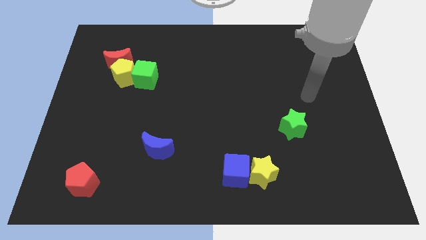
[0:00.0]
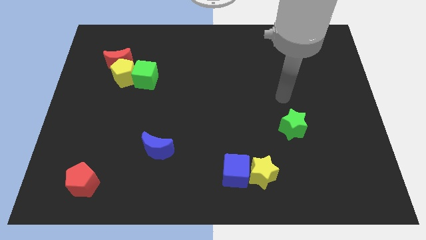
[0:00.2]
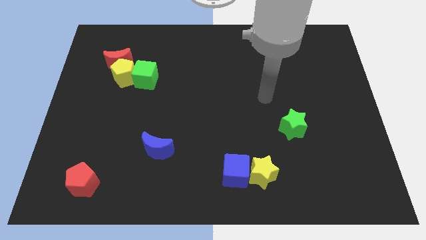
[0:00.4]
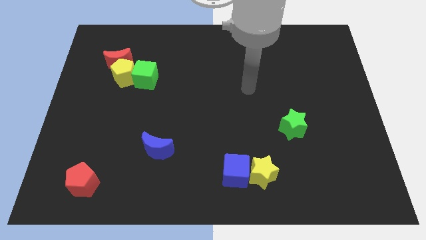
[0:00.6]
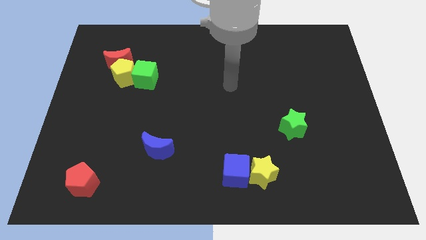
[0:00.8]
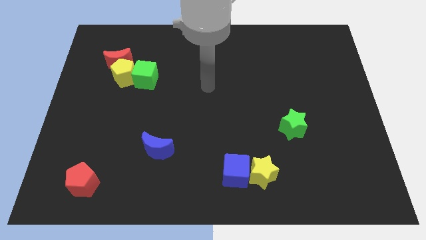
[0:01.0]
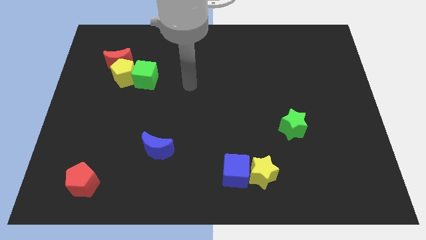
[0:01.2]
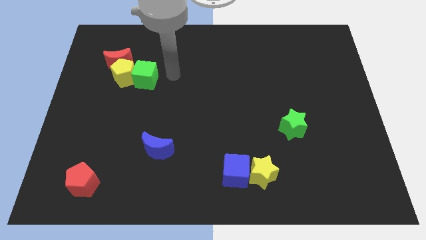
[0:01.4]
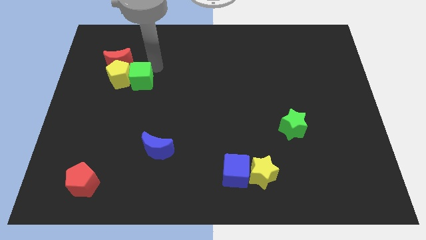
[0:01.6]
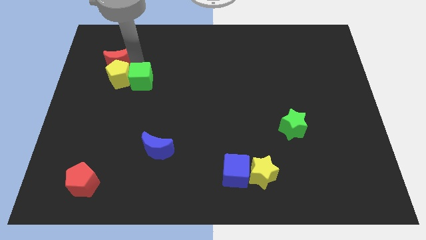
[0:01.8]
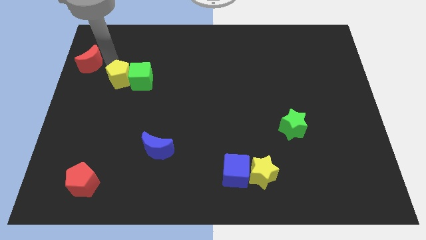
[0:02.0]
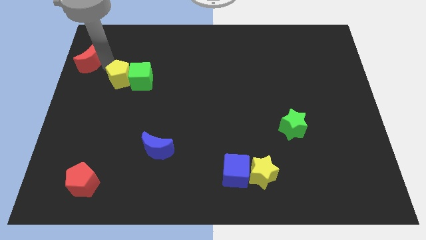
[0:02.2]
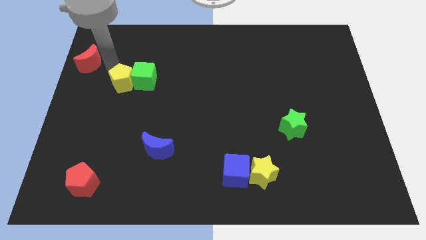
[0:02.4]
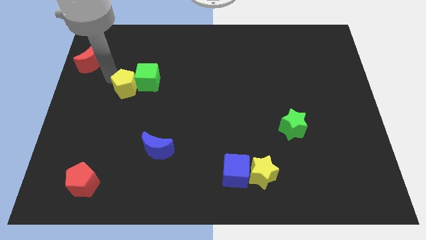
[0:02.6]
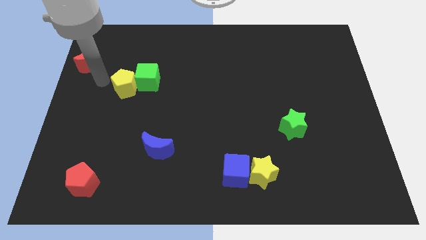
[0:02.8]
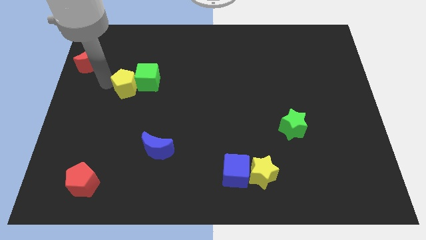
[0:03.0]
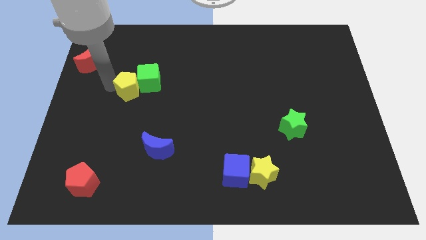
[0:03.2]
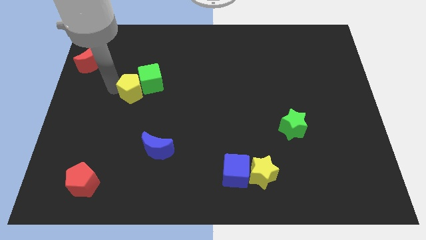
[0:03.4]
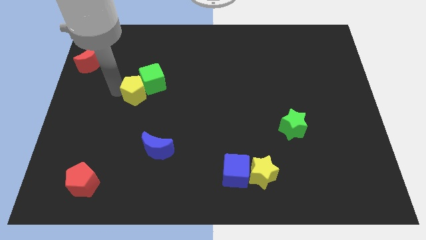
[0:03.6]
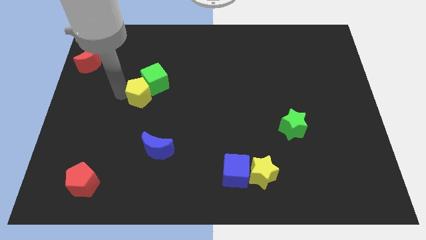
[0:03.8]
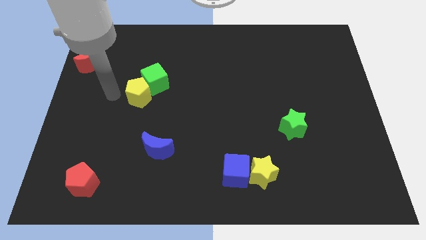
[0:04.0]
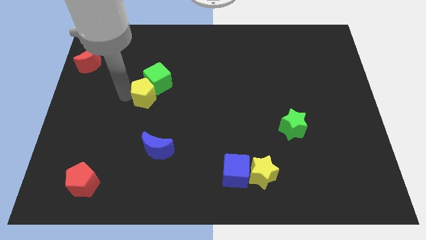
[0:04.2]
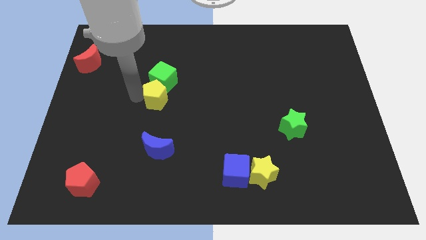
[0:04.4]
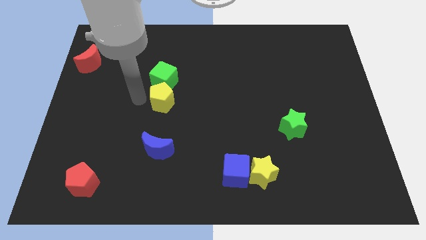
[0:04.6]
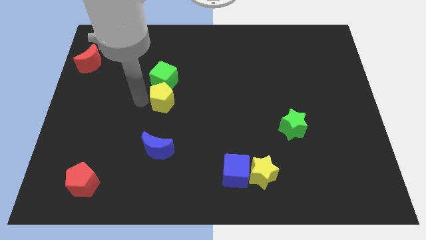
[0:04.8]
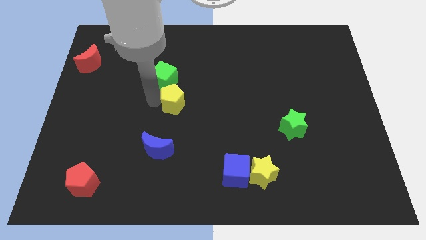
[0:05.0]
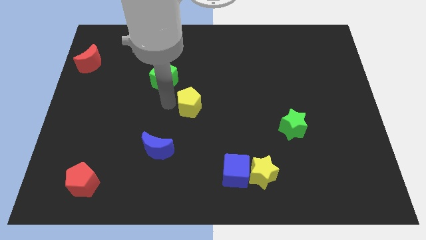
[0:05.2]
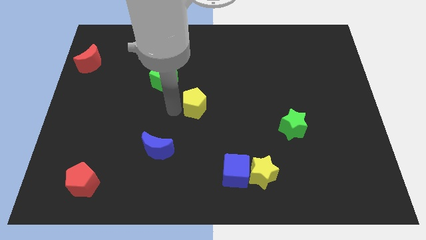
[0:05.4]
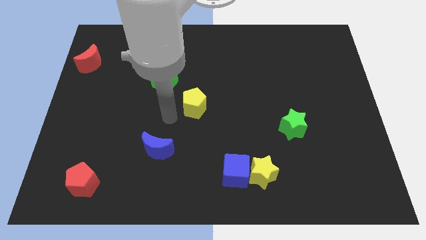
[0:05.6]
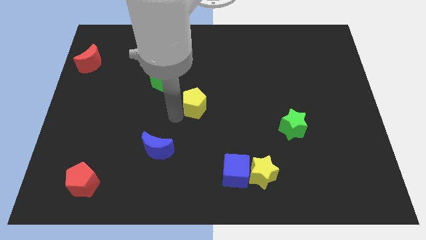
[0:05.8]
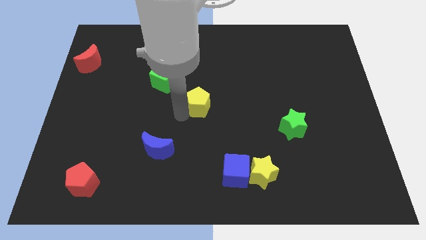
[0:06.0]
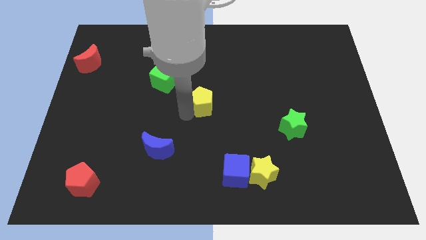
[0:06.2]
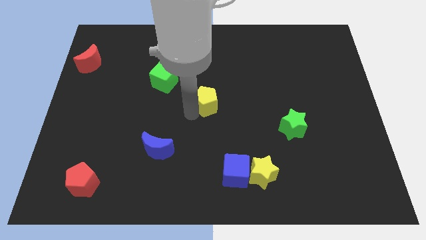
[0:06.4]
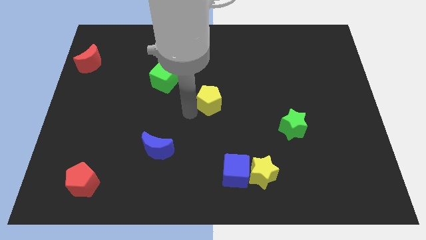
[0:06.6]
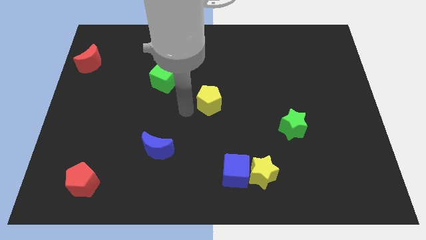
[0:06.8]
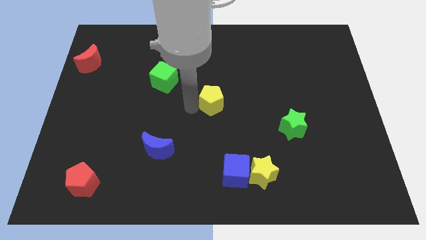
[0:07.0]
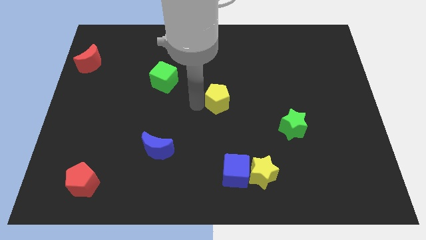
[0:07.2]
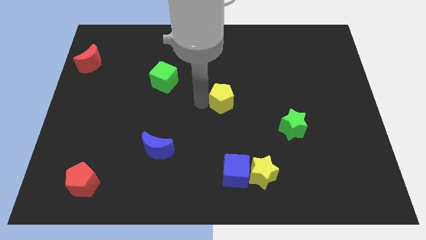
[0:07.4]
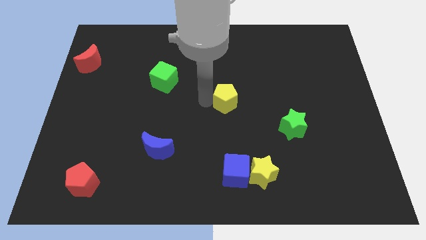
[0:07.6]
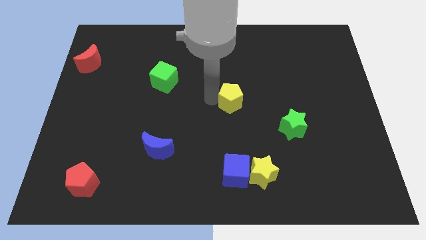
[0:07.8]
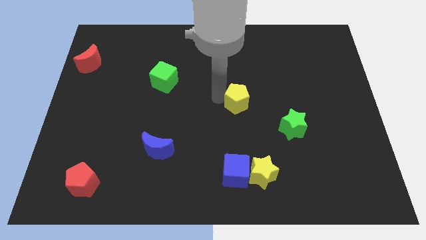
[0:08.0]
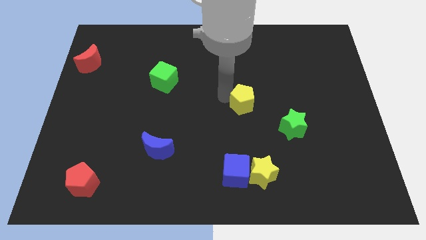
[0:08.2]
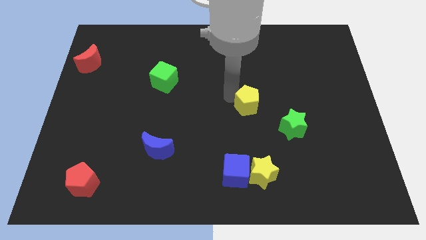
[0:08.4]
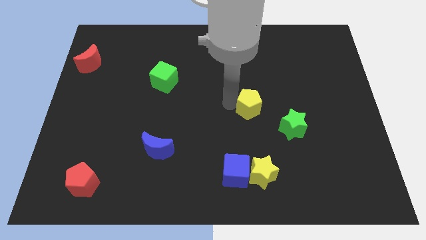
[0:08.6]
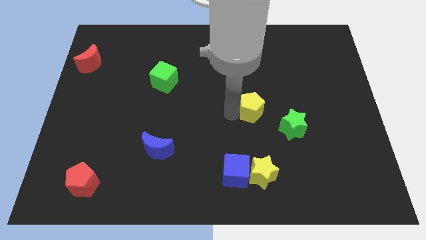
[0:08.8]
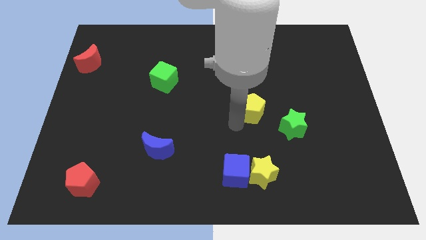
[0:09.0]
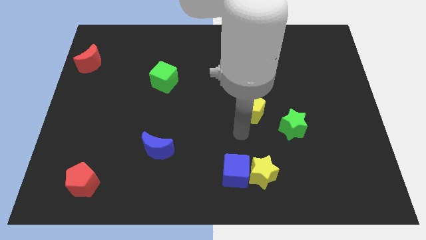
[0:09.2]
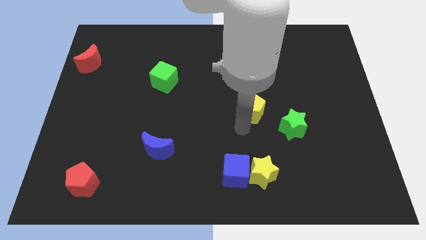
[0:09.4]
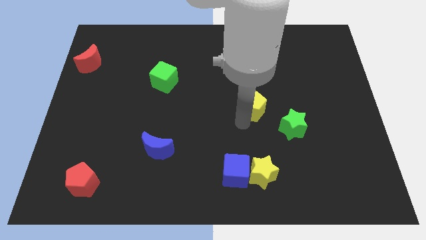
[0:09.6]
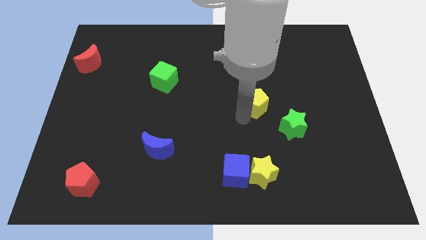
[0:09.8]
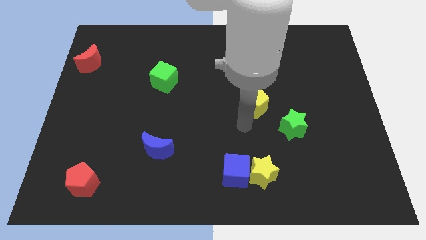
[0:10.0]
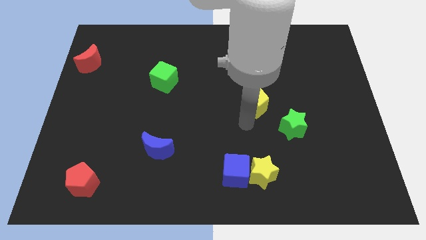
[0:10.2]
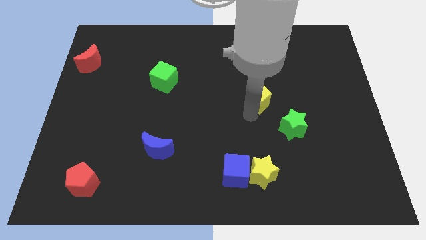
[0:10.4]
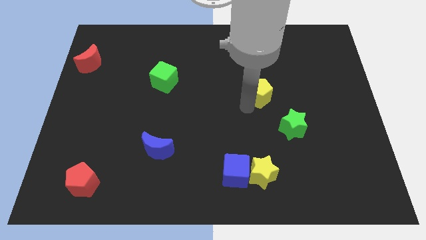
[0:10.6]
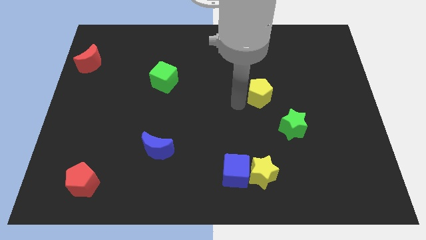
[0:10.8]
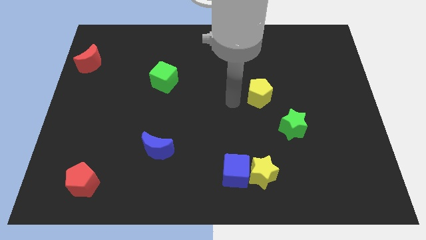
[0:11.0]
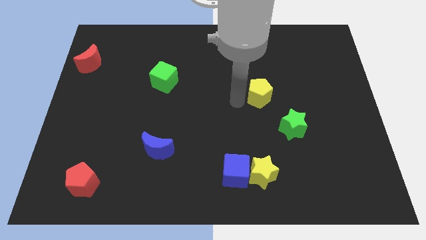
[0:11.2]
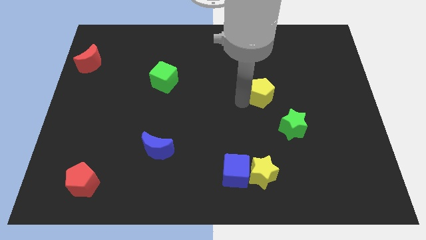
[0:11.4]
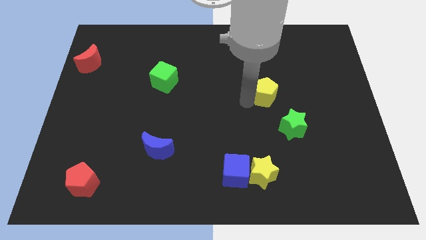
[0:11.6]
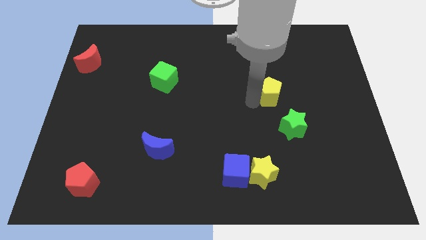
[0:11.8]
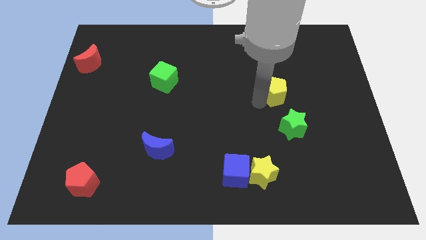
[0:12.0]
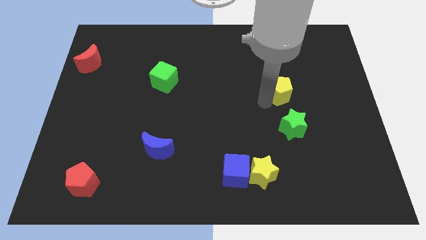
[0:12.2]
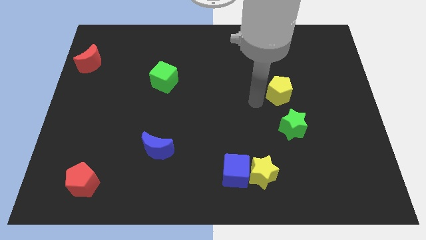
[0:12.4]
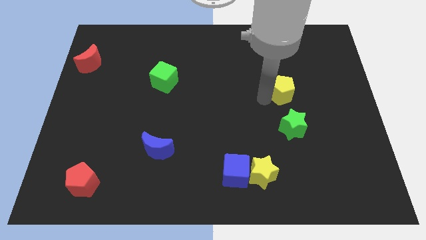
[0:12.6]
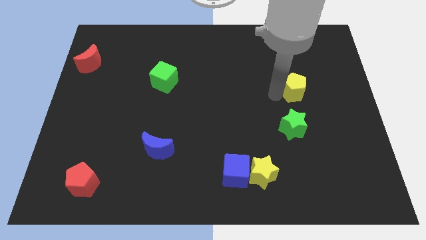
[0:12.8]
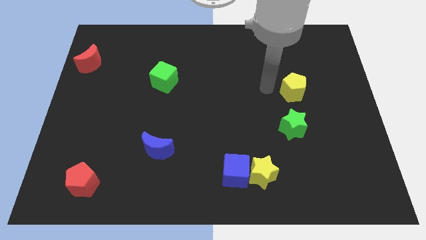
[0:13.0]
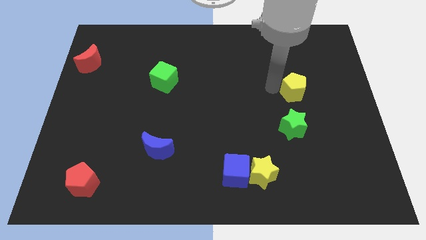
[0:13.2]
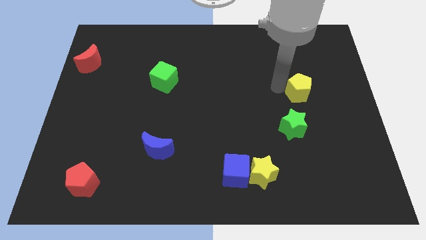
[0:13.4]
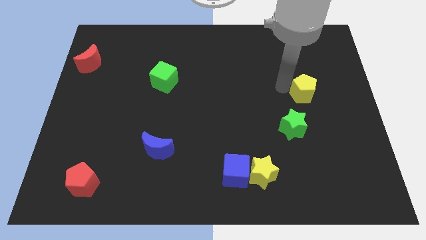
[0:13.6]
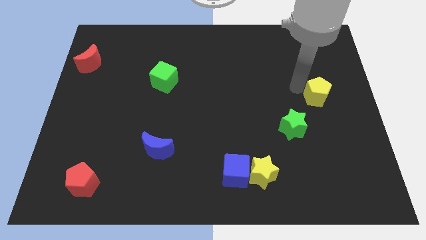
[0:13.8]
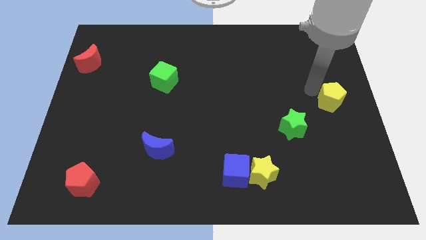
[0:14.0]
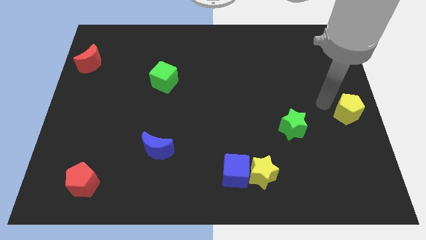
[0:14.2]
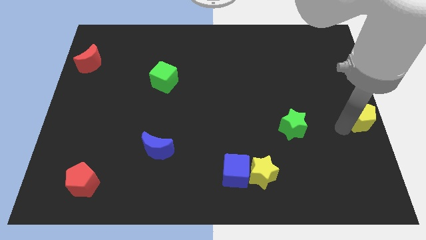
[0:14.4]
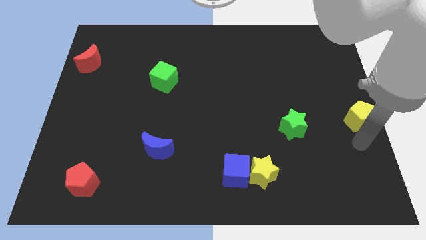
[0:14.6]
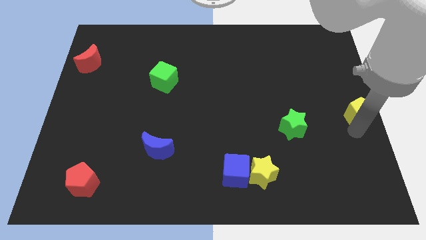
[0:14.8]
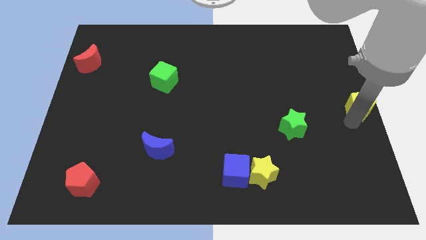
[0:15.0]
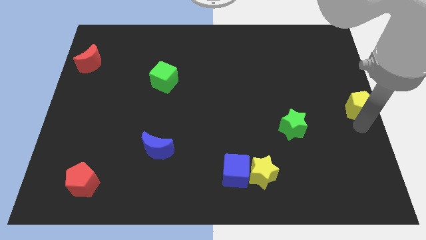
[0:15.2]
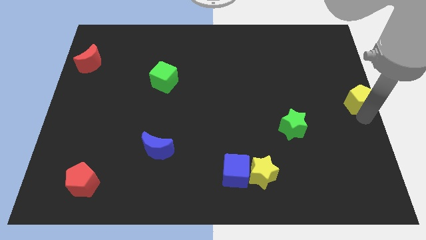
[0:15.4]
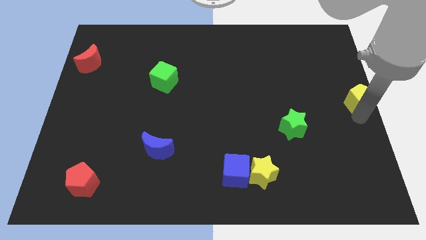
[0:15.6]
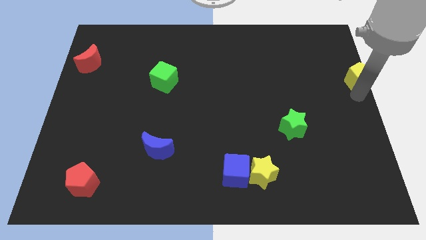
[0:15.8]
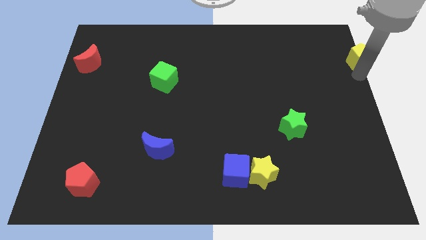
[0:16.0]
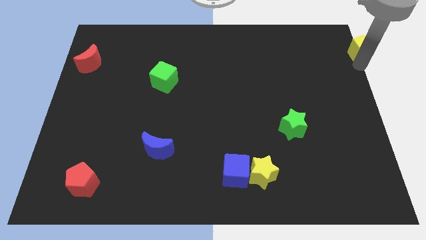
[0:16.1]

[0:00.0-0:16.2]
move the yellow pentagon to the top right
